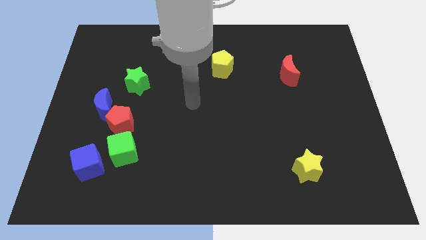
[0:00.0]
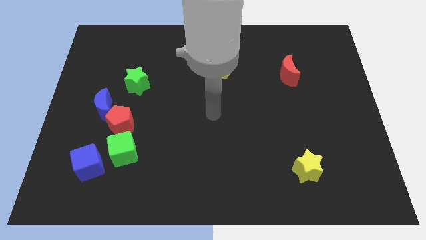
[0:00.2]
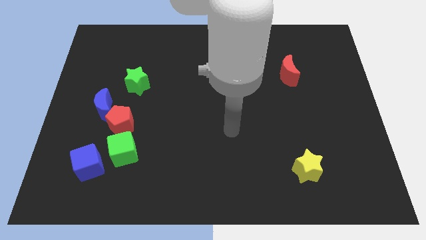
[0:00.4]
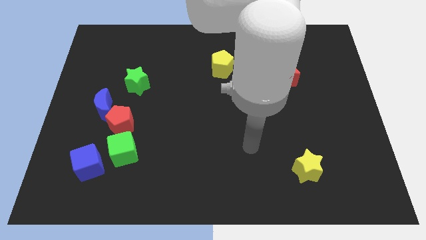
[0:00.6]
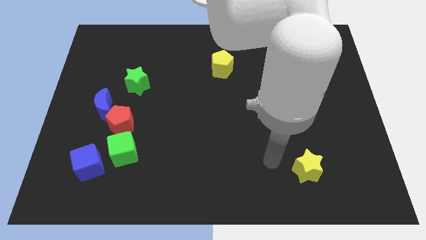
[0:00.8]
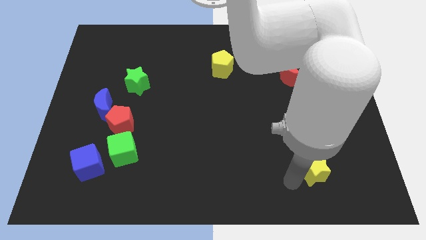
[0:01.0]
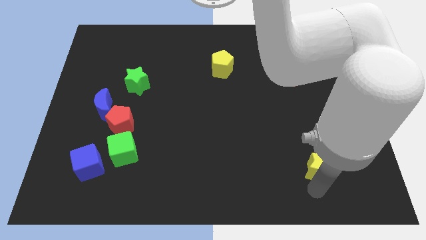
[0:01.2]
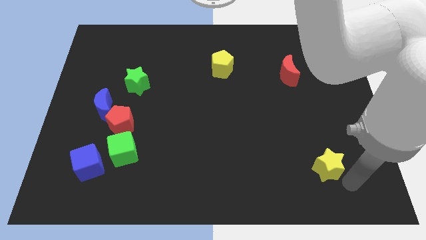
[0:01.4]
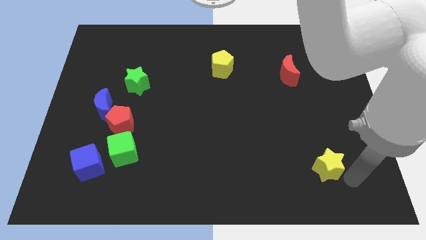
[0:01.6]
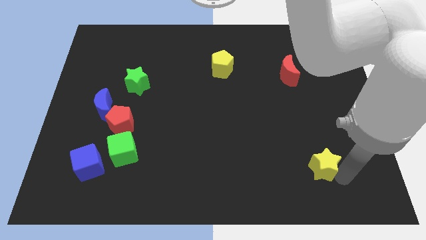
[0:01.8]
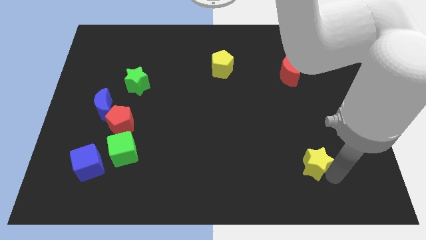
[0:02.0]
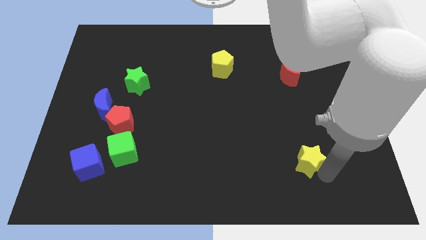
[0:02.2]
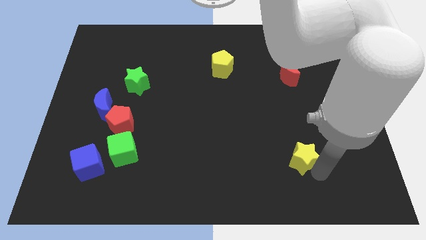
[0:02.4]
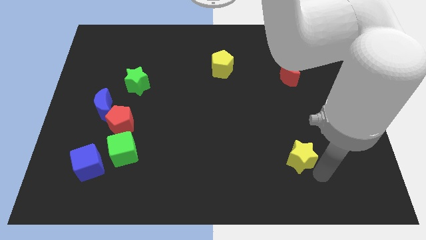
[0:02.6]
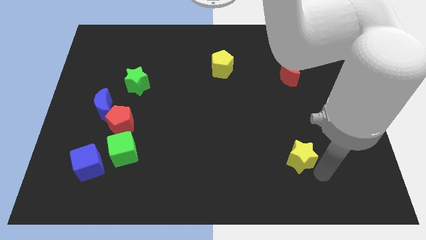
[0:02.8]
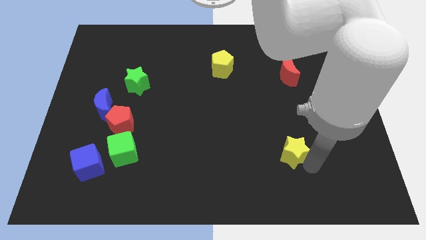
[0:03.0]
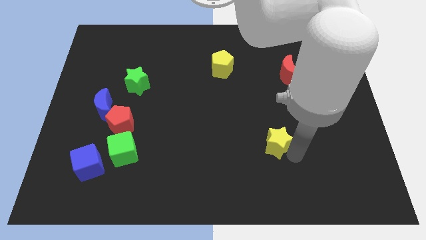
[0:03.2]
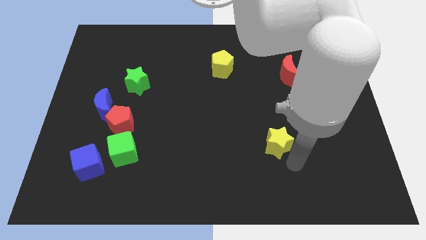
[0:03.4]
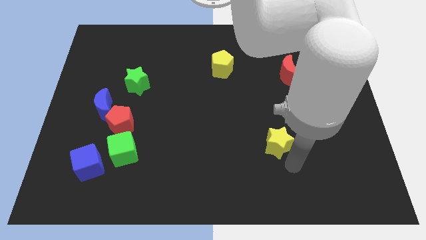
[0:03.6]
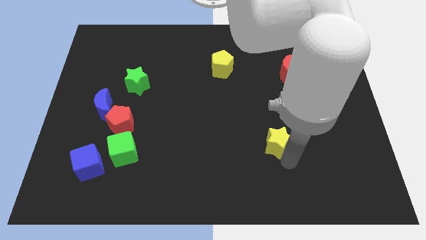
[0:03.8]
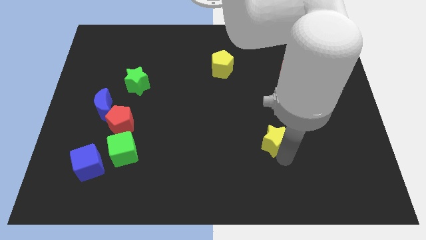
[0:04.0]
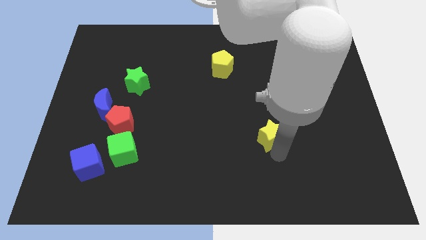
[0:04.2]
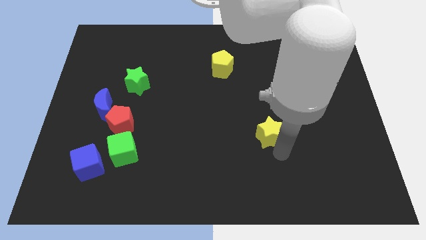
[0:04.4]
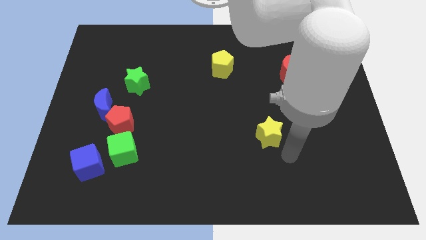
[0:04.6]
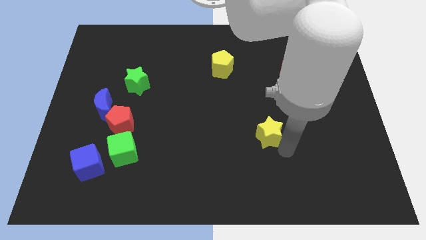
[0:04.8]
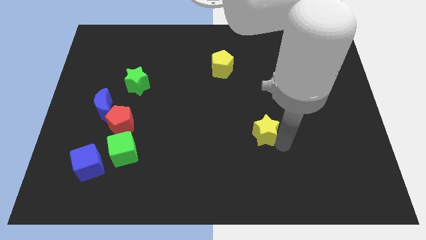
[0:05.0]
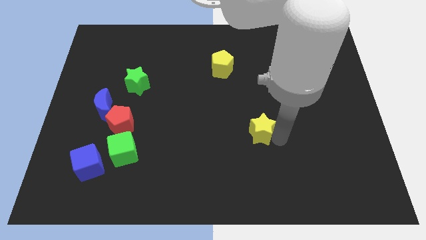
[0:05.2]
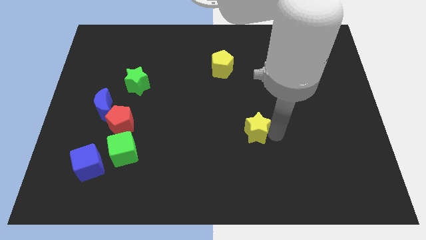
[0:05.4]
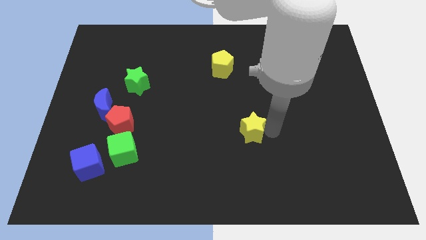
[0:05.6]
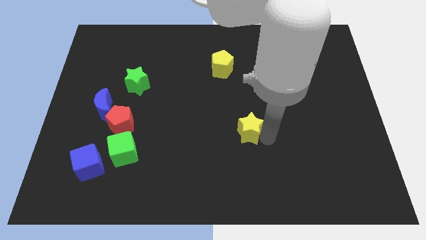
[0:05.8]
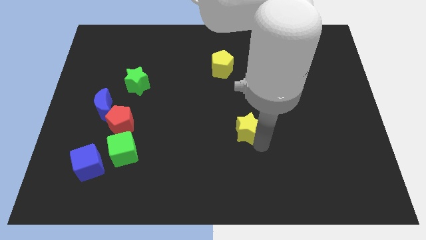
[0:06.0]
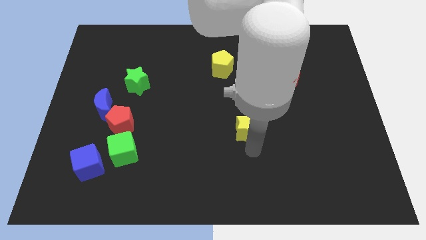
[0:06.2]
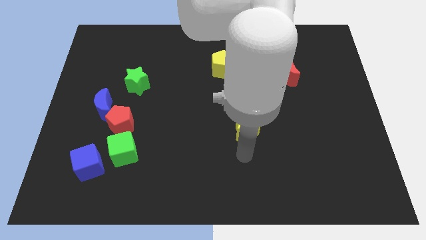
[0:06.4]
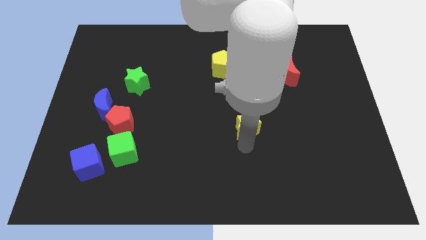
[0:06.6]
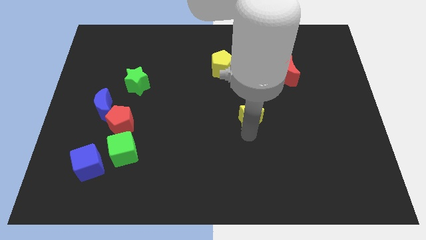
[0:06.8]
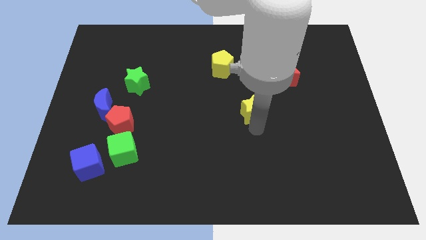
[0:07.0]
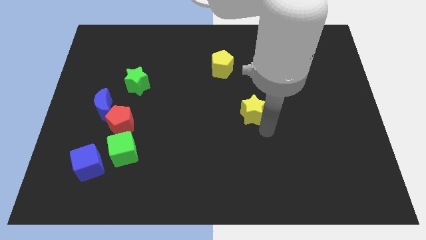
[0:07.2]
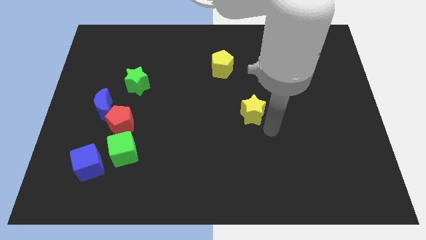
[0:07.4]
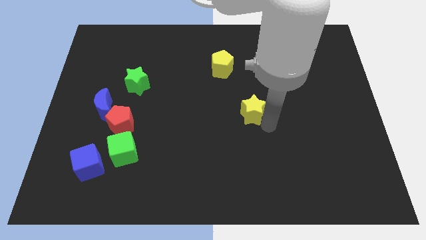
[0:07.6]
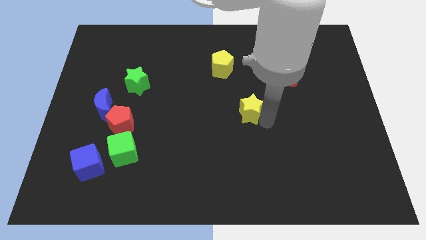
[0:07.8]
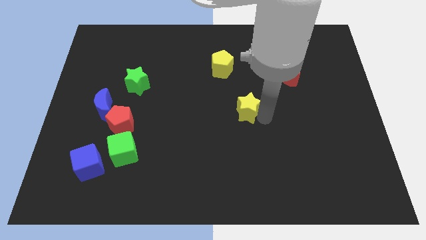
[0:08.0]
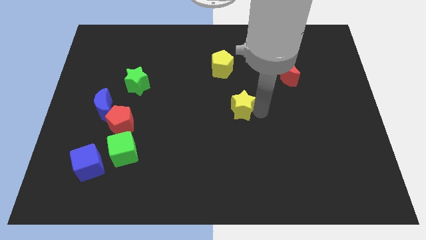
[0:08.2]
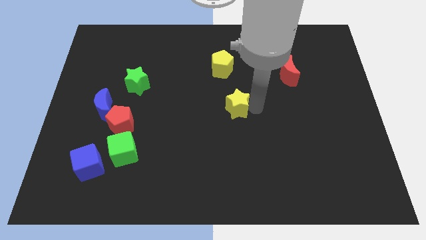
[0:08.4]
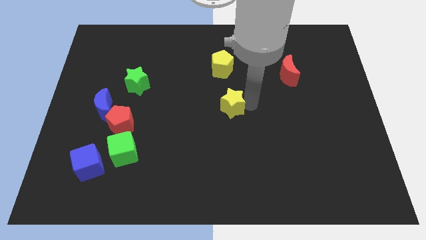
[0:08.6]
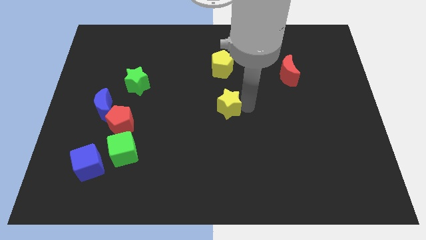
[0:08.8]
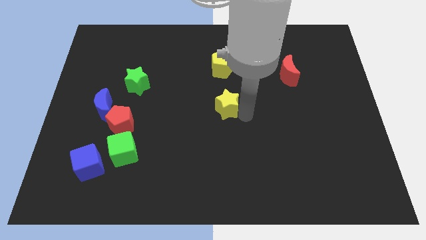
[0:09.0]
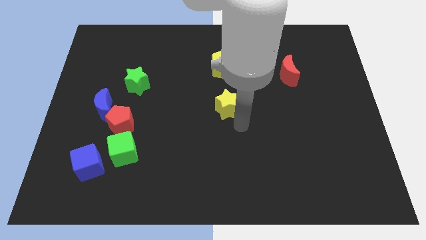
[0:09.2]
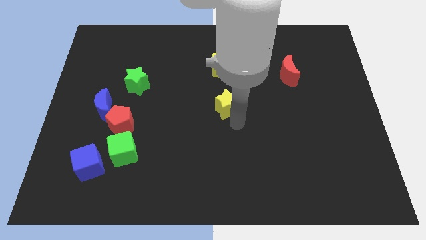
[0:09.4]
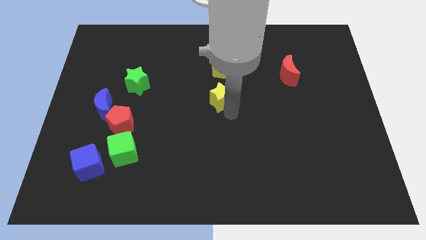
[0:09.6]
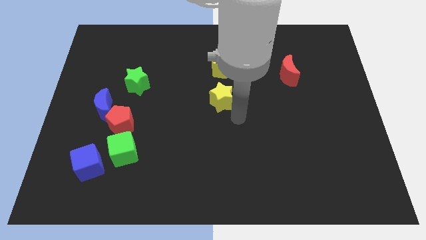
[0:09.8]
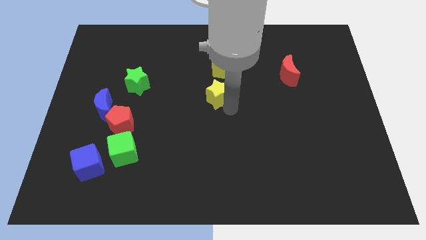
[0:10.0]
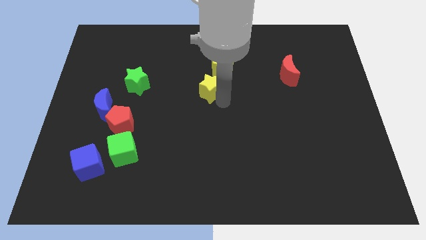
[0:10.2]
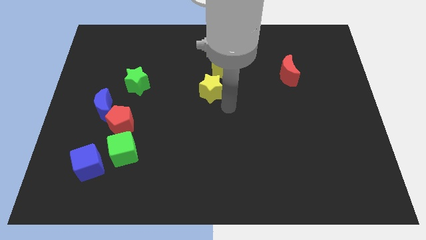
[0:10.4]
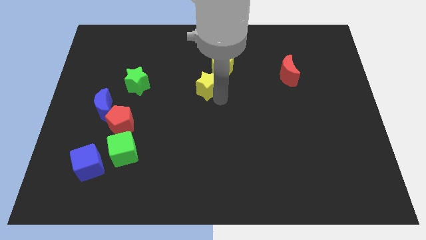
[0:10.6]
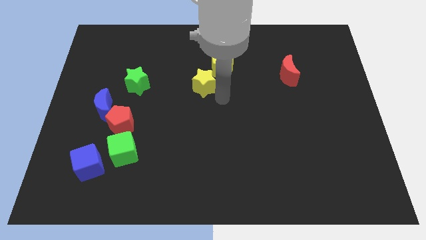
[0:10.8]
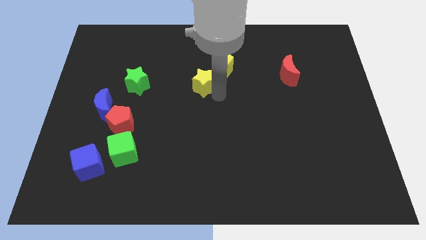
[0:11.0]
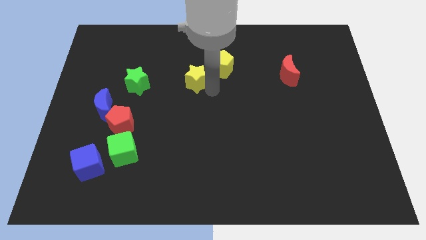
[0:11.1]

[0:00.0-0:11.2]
push the yellow star just left of the yellow pentagon

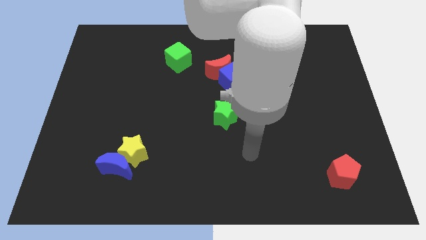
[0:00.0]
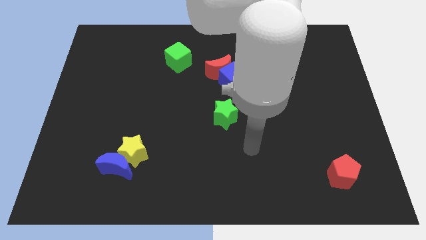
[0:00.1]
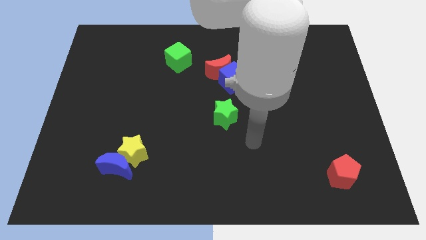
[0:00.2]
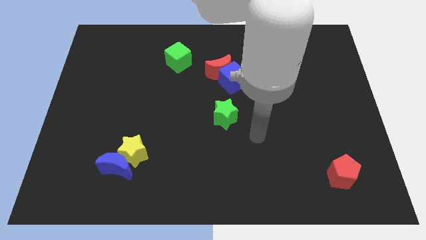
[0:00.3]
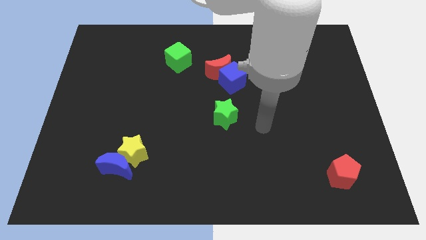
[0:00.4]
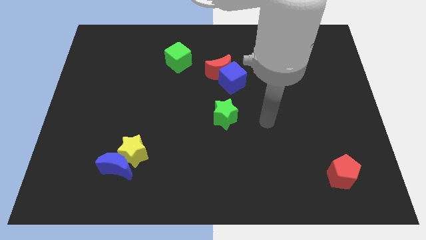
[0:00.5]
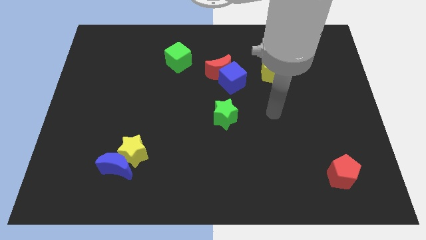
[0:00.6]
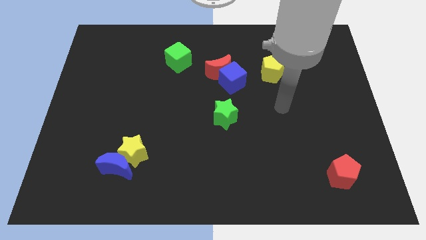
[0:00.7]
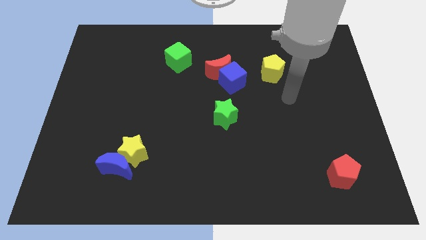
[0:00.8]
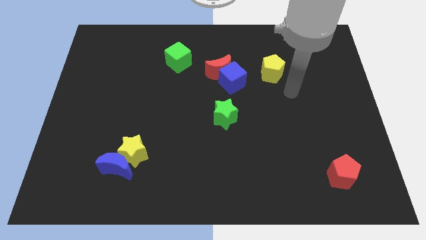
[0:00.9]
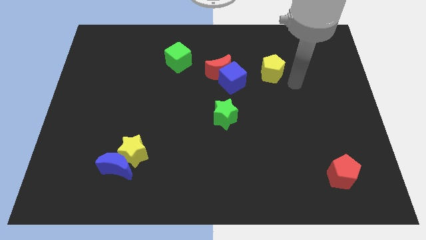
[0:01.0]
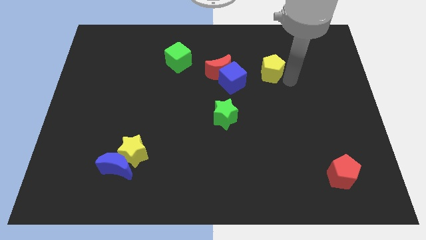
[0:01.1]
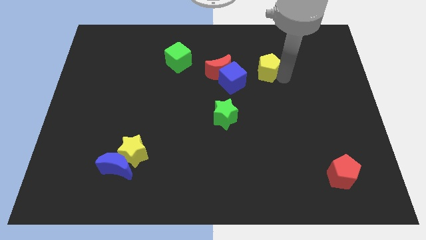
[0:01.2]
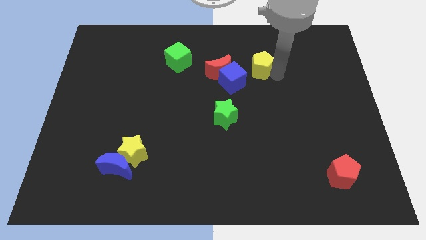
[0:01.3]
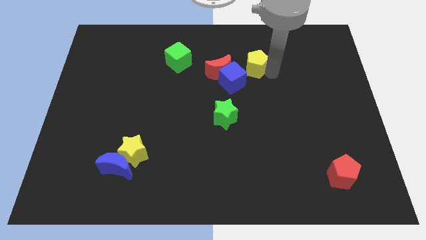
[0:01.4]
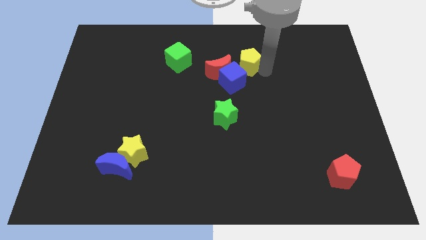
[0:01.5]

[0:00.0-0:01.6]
slide the yellow pentagon diagonally up and to the right of the red moon
